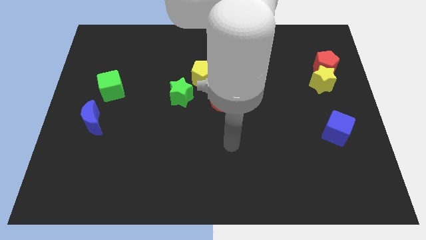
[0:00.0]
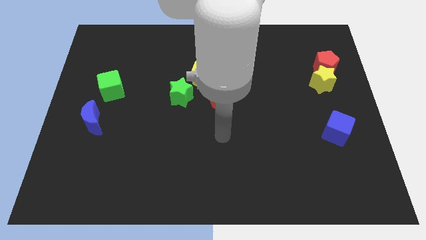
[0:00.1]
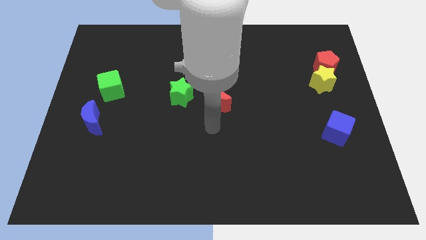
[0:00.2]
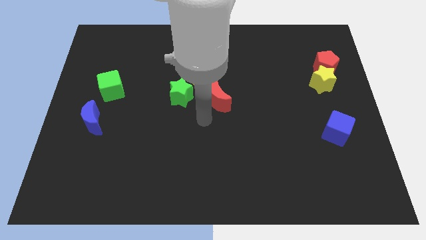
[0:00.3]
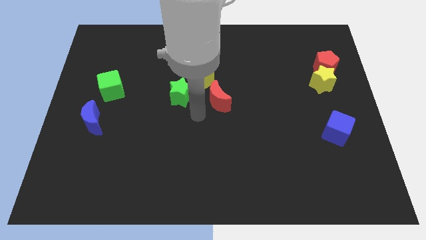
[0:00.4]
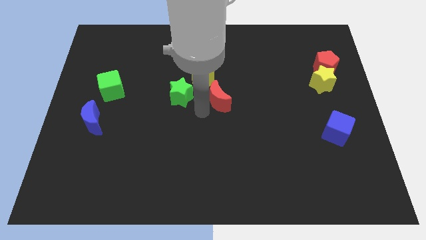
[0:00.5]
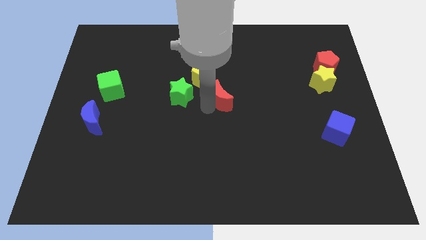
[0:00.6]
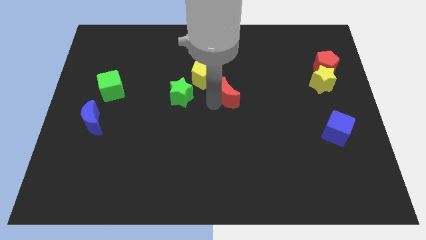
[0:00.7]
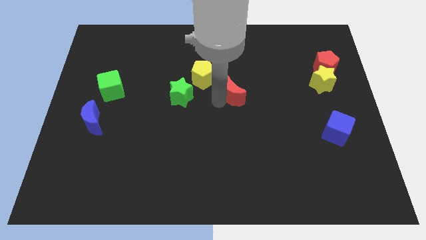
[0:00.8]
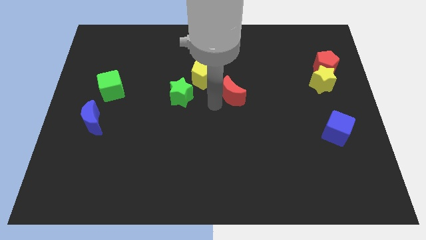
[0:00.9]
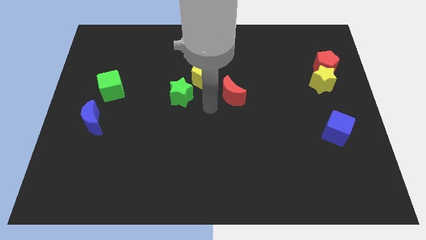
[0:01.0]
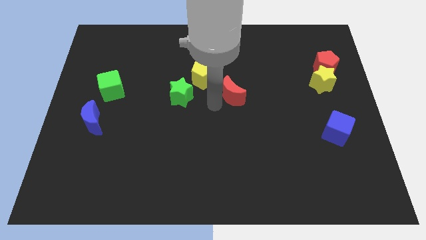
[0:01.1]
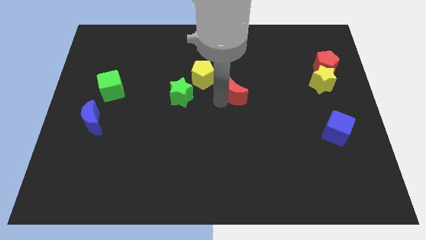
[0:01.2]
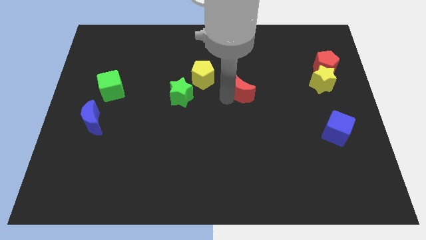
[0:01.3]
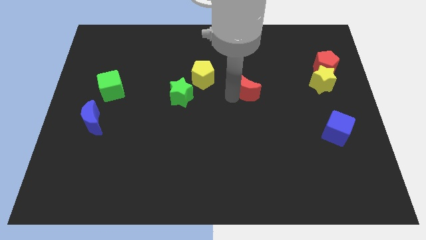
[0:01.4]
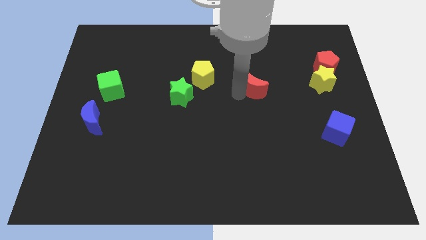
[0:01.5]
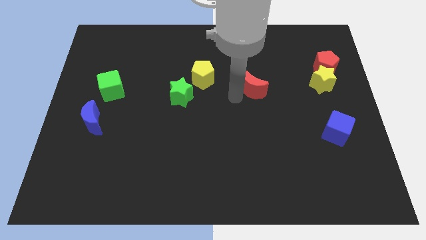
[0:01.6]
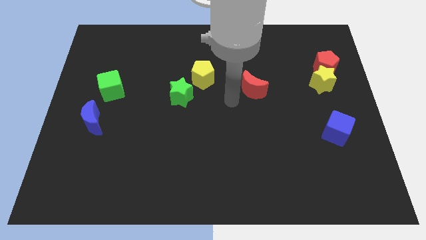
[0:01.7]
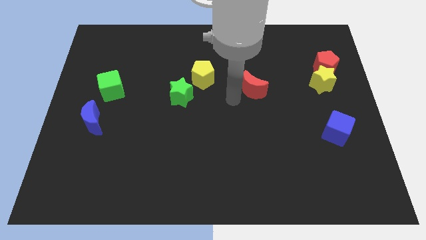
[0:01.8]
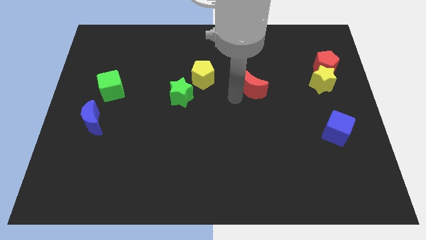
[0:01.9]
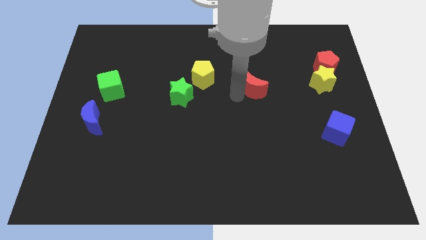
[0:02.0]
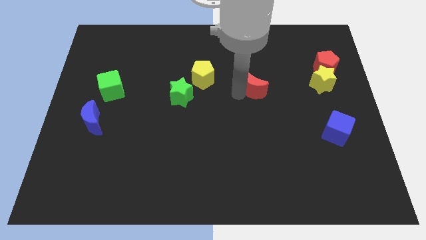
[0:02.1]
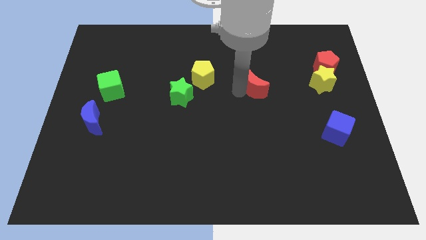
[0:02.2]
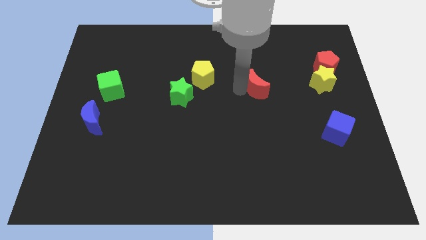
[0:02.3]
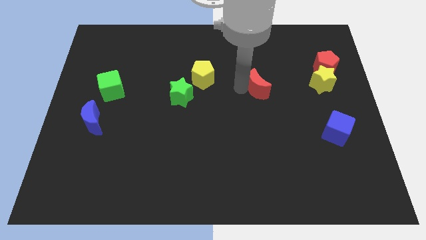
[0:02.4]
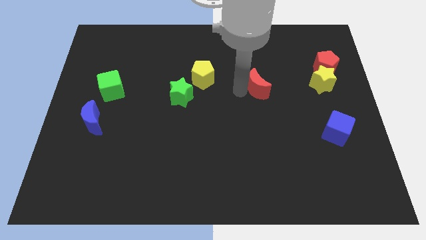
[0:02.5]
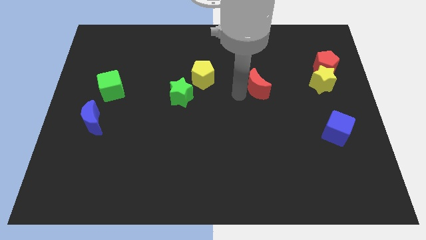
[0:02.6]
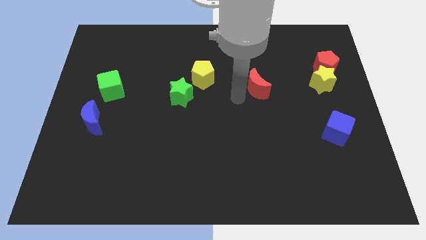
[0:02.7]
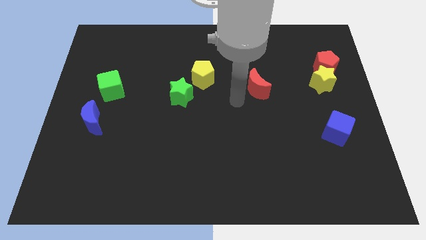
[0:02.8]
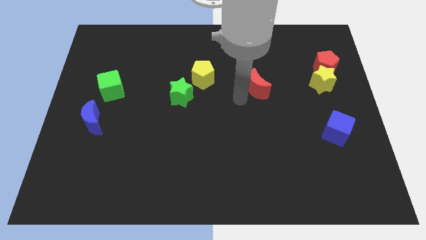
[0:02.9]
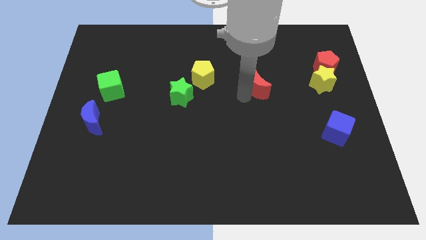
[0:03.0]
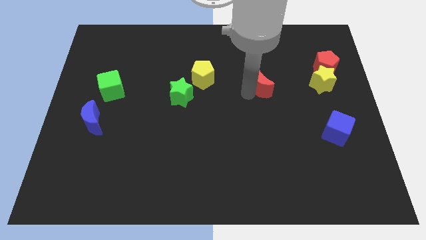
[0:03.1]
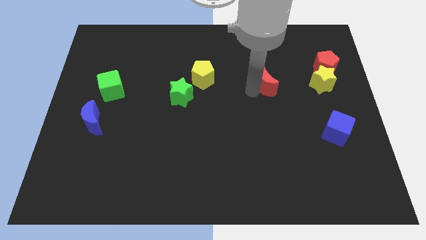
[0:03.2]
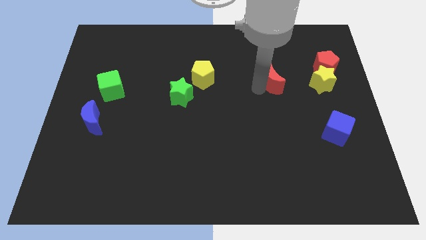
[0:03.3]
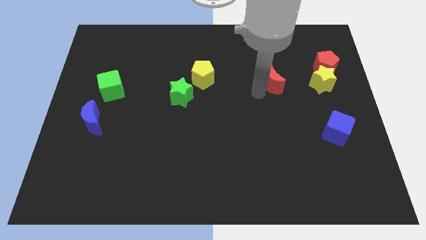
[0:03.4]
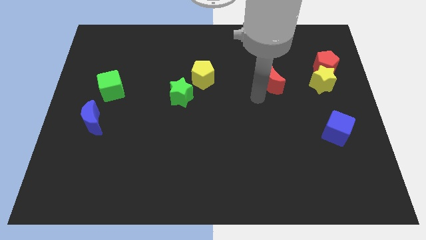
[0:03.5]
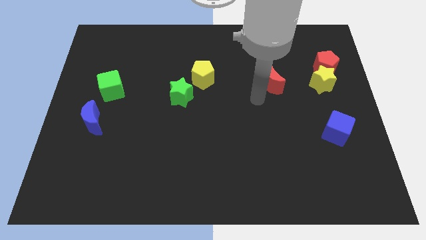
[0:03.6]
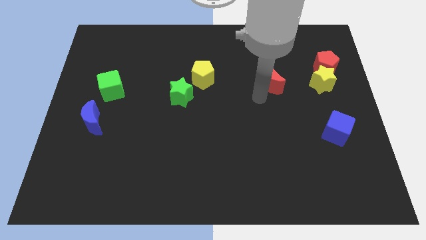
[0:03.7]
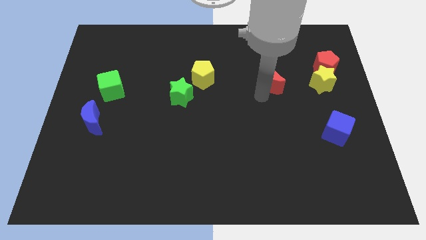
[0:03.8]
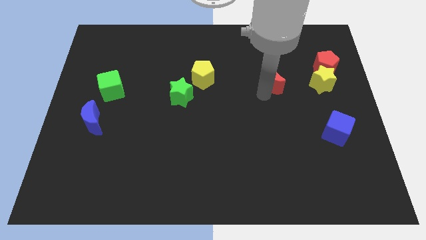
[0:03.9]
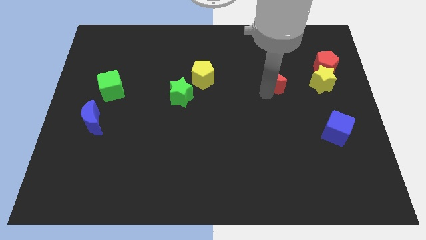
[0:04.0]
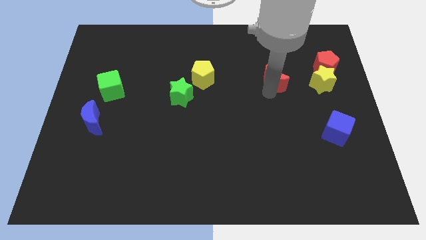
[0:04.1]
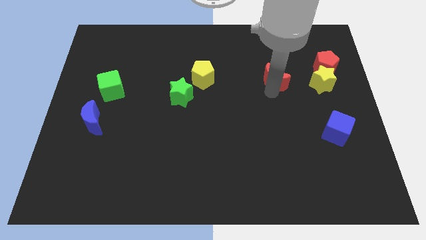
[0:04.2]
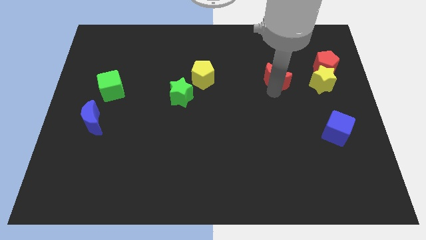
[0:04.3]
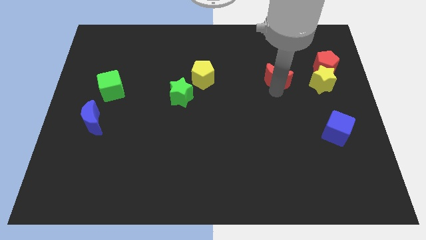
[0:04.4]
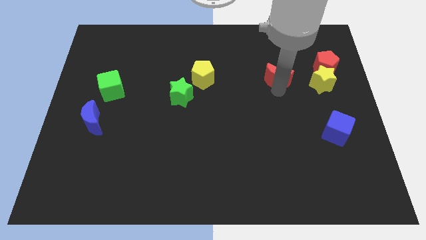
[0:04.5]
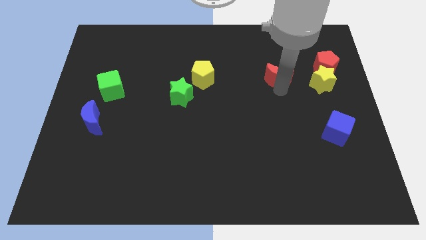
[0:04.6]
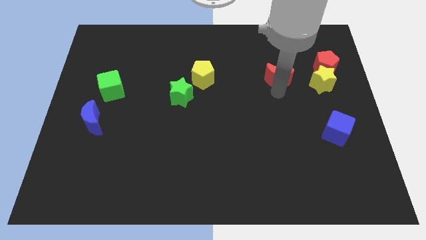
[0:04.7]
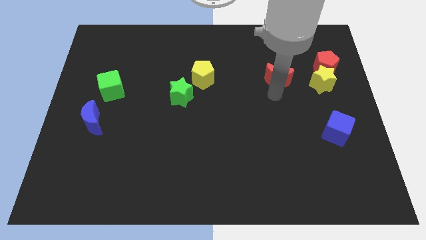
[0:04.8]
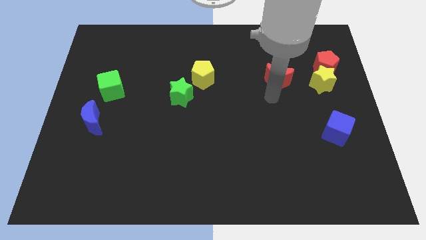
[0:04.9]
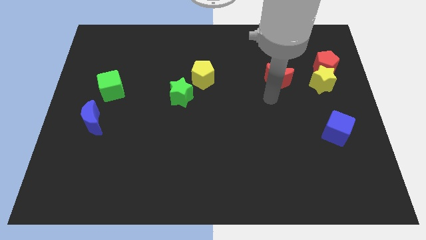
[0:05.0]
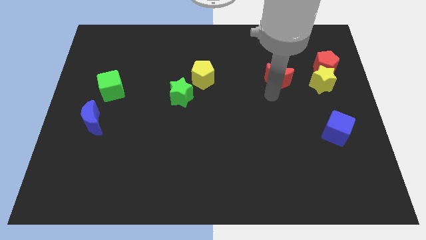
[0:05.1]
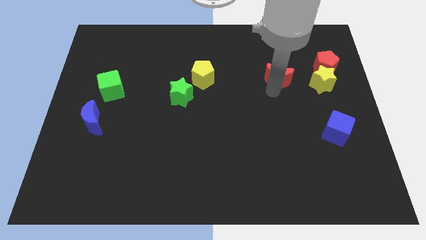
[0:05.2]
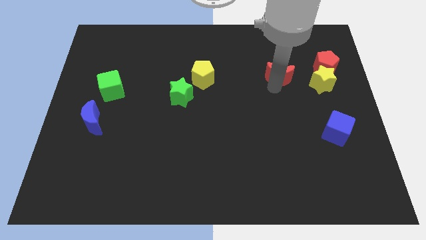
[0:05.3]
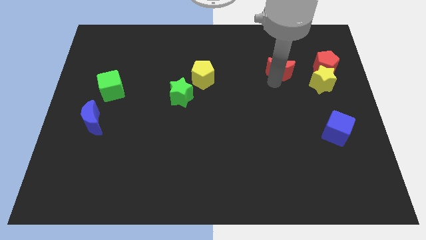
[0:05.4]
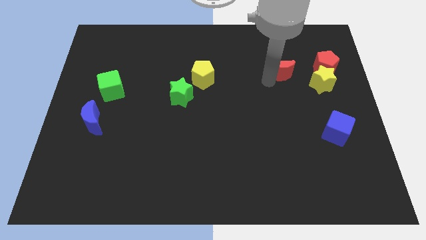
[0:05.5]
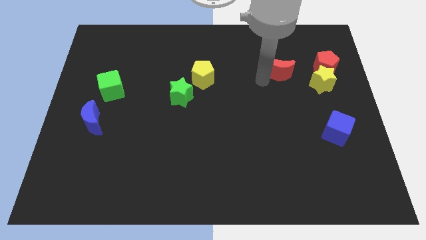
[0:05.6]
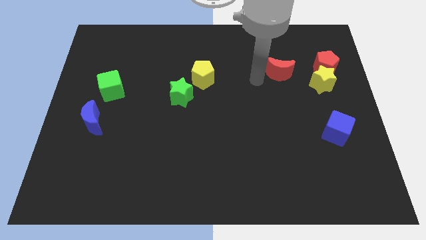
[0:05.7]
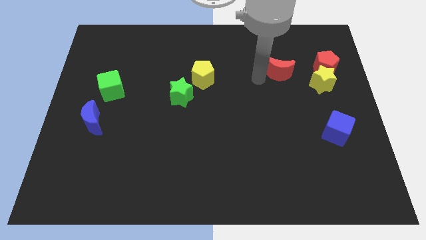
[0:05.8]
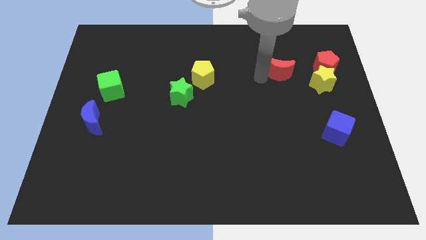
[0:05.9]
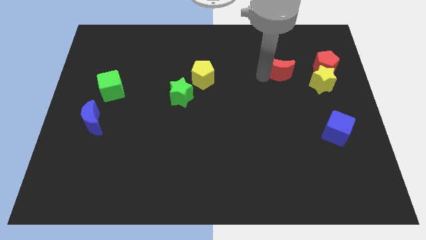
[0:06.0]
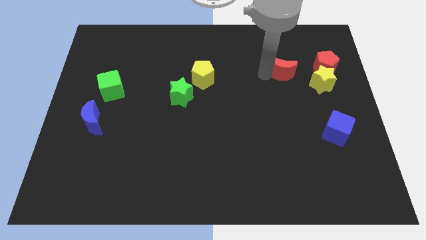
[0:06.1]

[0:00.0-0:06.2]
push the red moon to the top left of the yellow star

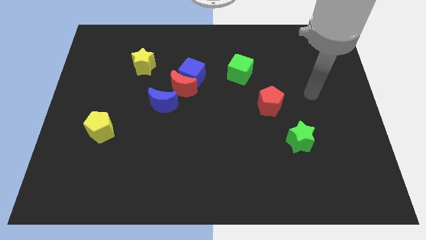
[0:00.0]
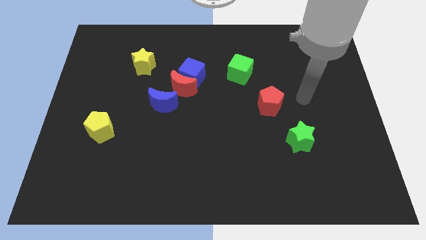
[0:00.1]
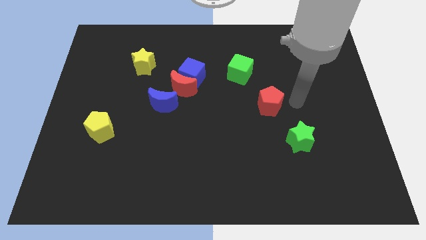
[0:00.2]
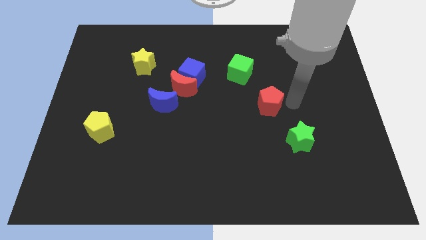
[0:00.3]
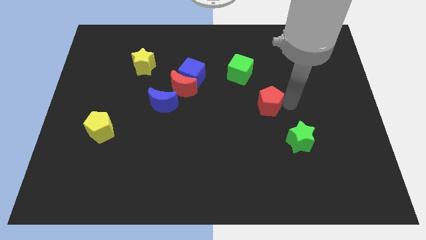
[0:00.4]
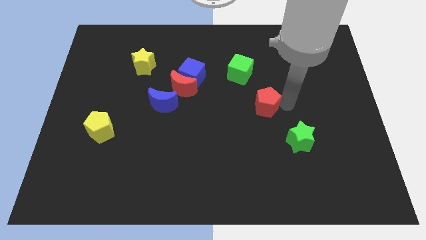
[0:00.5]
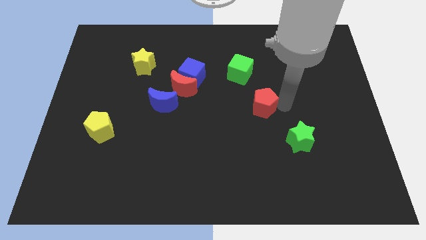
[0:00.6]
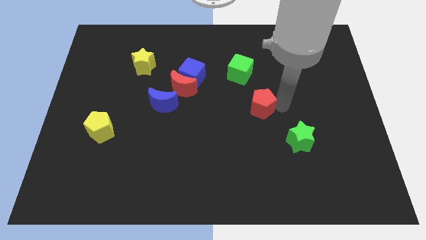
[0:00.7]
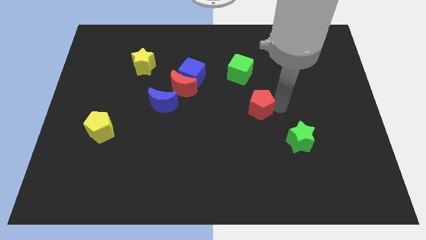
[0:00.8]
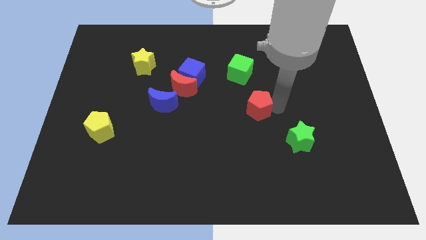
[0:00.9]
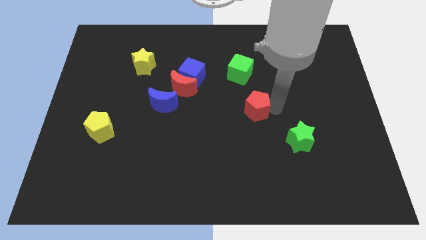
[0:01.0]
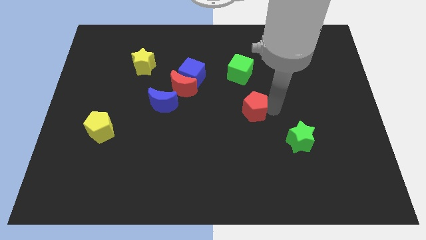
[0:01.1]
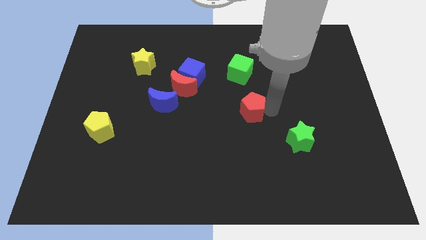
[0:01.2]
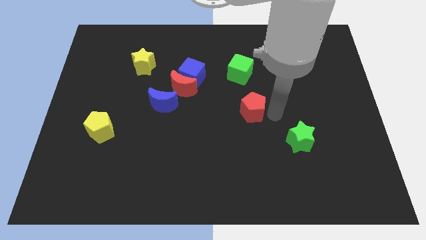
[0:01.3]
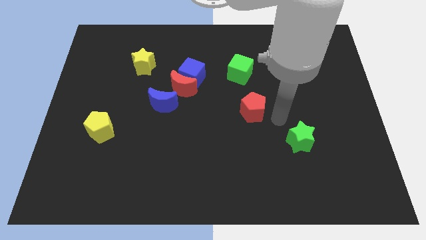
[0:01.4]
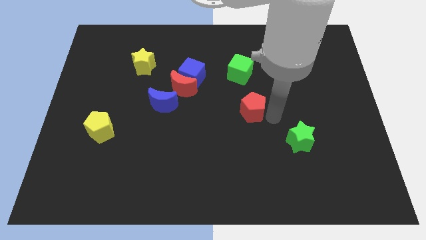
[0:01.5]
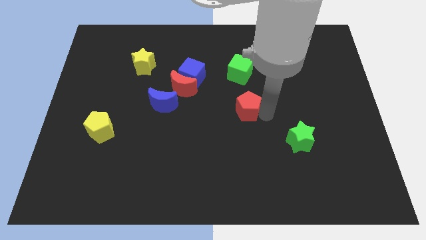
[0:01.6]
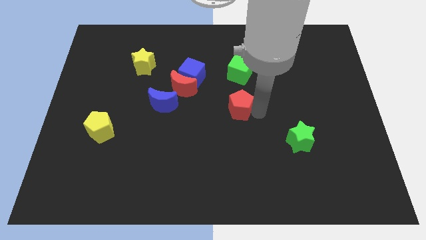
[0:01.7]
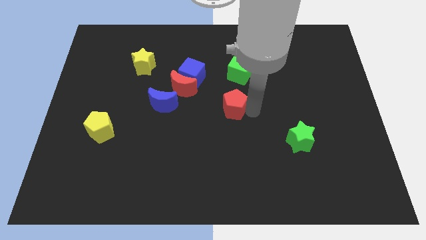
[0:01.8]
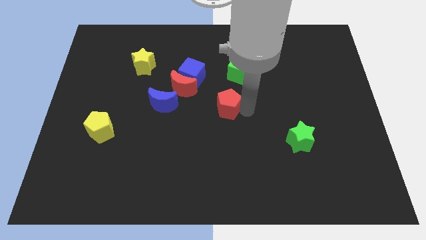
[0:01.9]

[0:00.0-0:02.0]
push the red pentagon diagonally down and to the right of the blue cube
